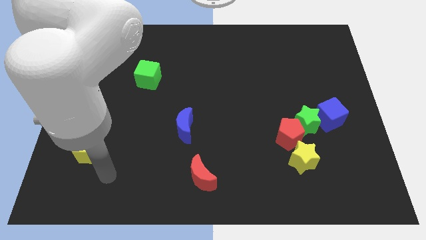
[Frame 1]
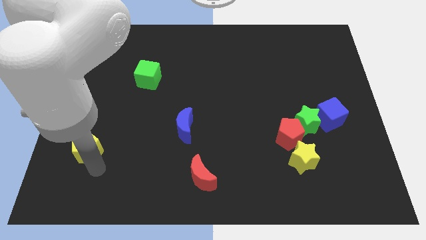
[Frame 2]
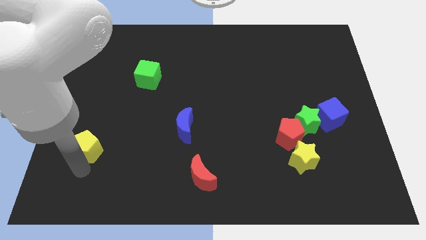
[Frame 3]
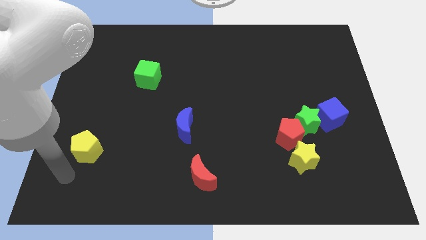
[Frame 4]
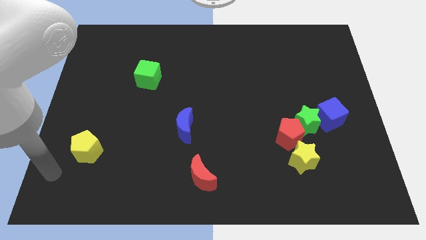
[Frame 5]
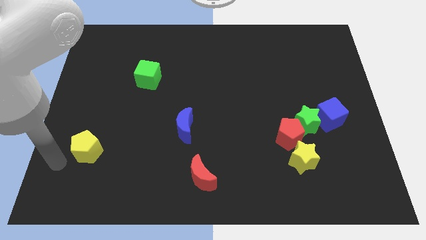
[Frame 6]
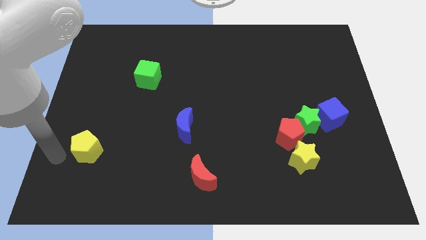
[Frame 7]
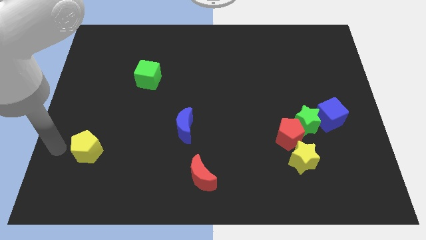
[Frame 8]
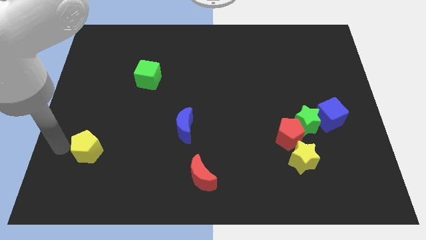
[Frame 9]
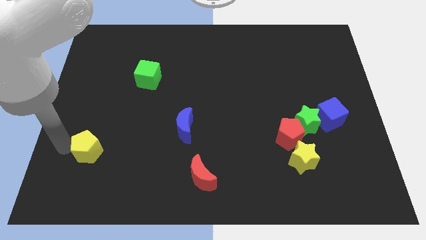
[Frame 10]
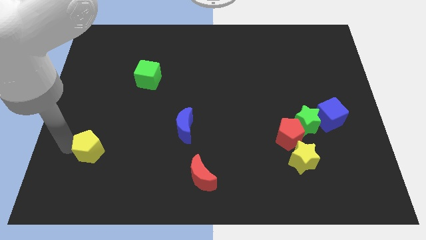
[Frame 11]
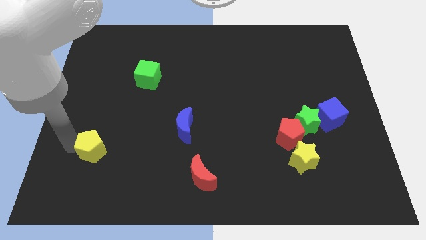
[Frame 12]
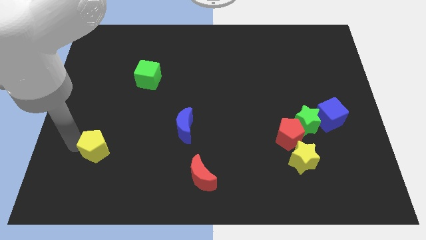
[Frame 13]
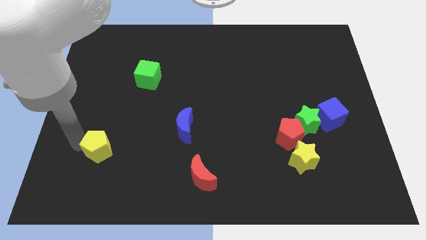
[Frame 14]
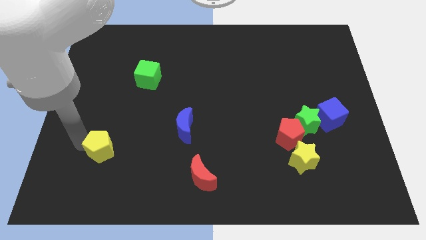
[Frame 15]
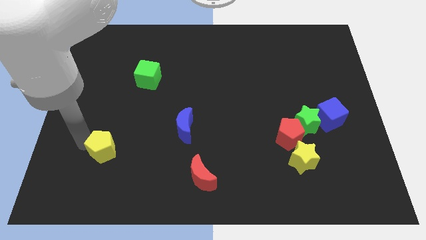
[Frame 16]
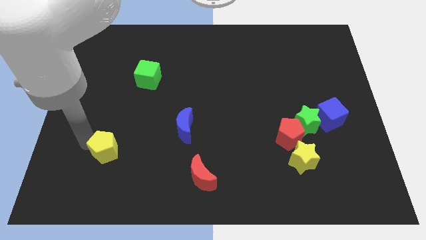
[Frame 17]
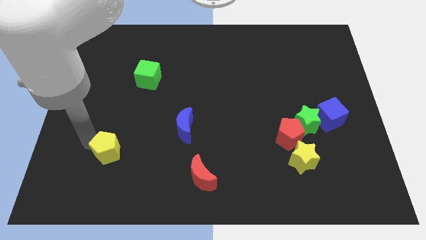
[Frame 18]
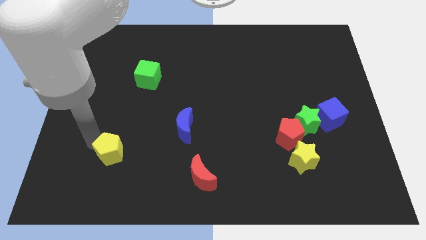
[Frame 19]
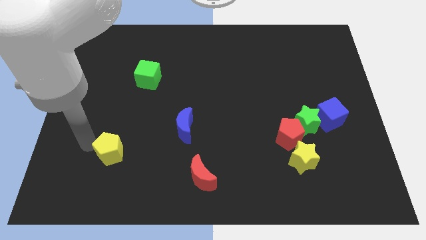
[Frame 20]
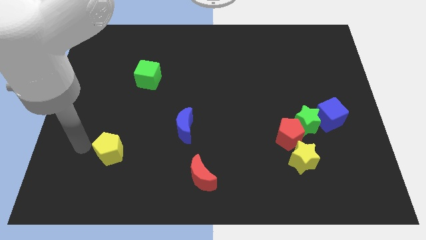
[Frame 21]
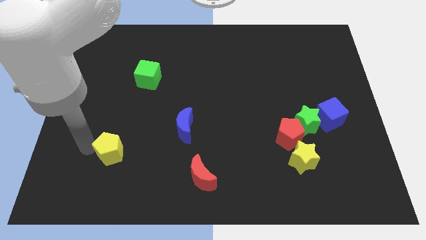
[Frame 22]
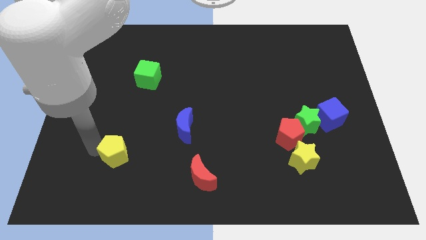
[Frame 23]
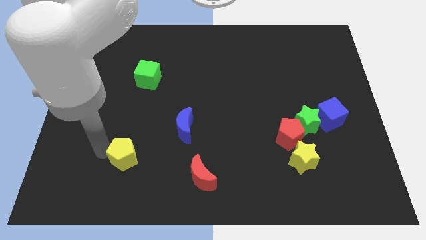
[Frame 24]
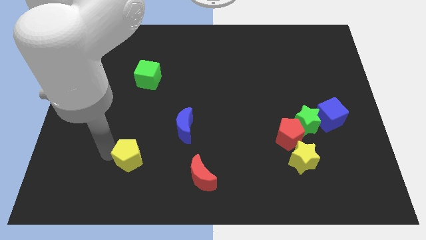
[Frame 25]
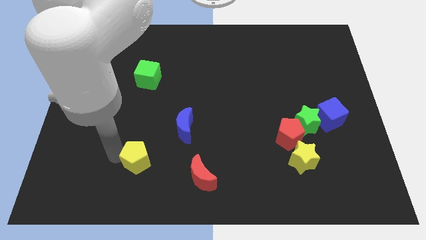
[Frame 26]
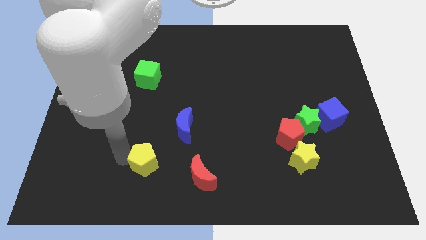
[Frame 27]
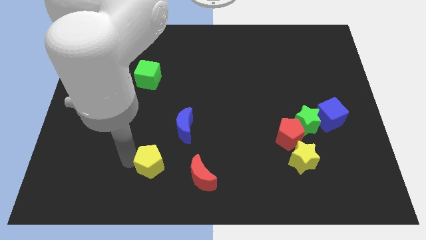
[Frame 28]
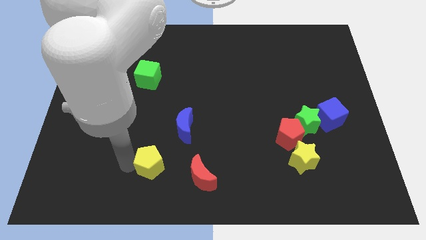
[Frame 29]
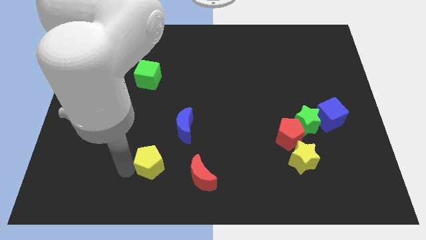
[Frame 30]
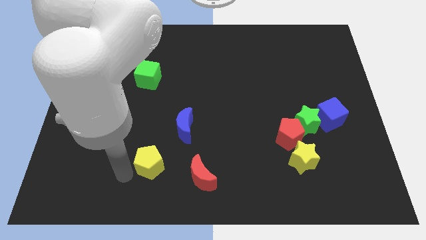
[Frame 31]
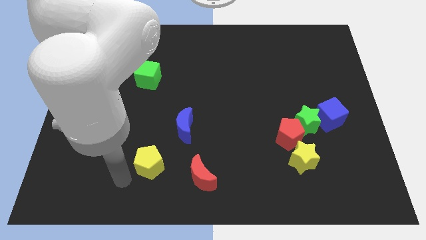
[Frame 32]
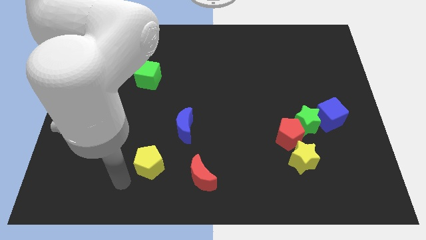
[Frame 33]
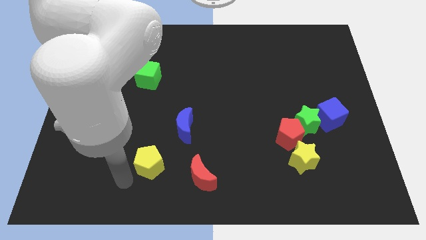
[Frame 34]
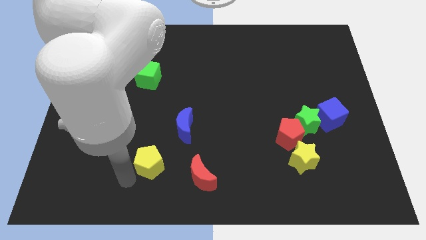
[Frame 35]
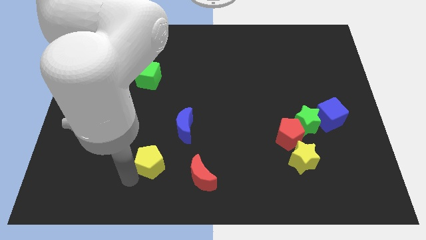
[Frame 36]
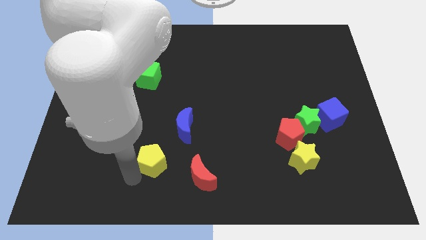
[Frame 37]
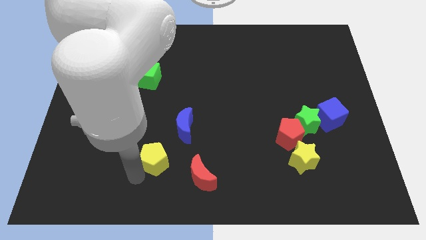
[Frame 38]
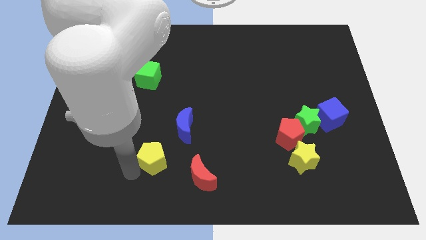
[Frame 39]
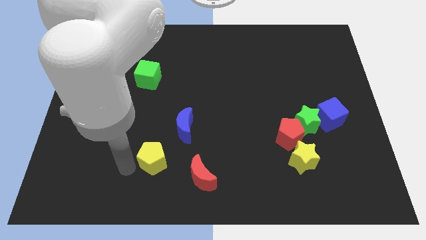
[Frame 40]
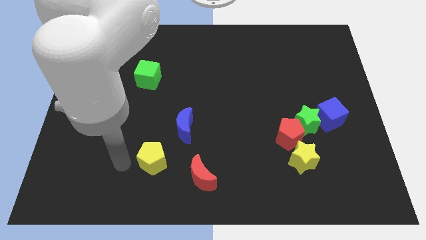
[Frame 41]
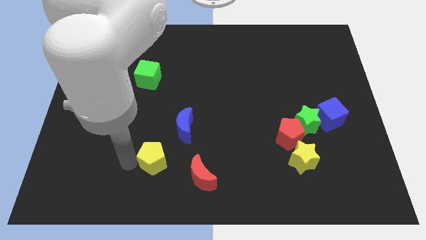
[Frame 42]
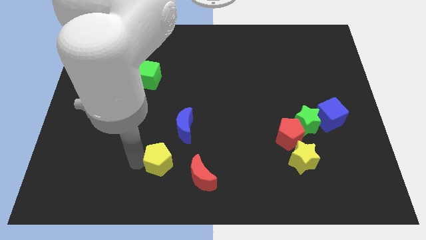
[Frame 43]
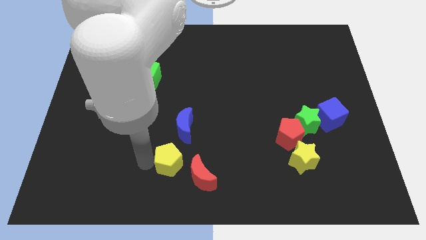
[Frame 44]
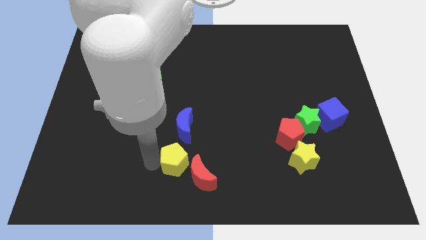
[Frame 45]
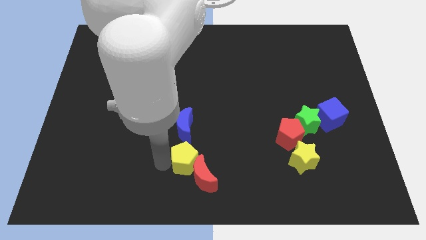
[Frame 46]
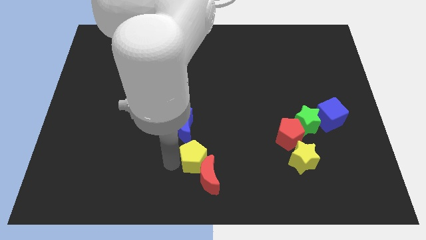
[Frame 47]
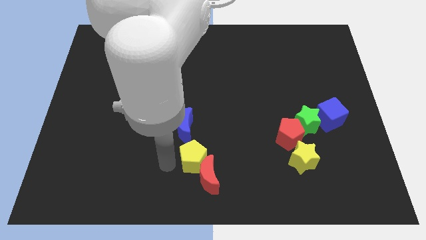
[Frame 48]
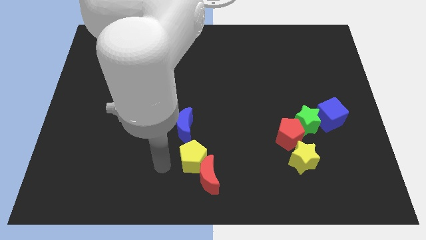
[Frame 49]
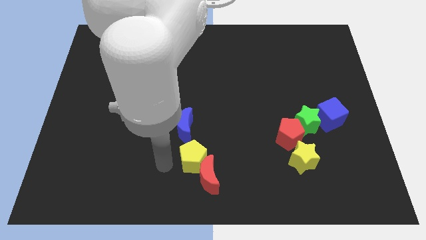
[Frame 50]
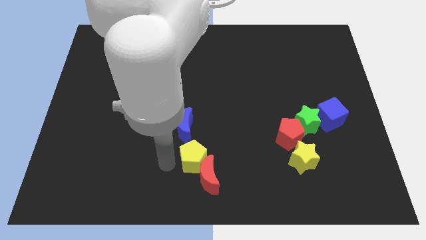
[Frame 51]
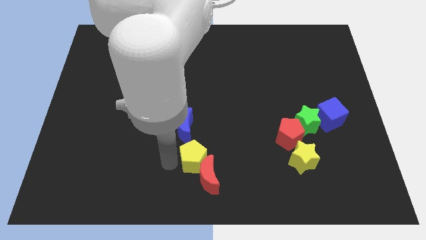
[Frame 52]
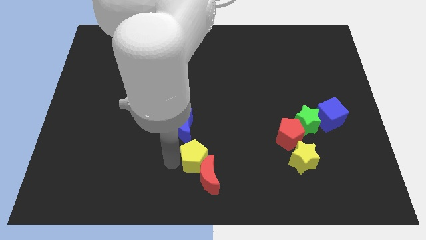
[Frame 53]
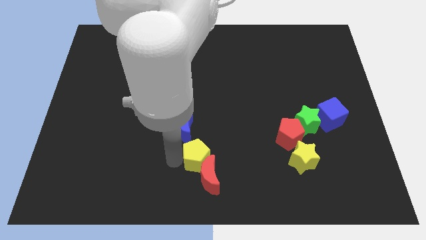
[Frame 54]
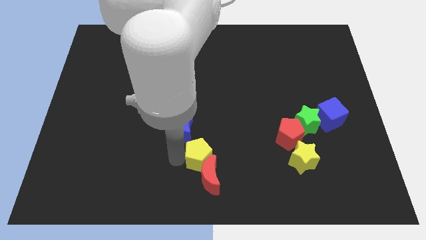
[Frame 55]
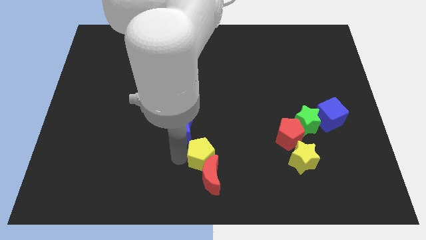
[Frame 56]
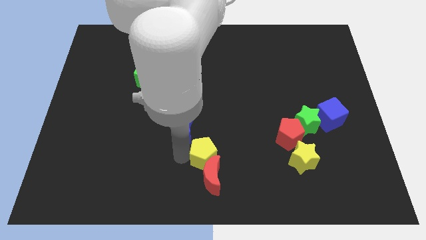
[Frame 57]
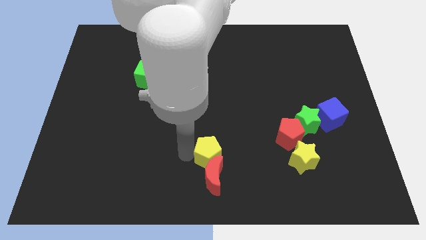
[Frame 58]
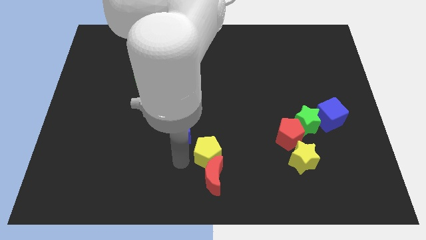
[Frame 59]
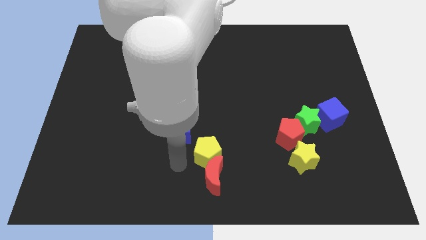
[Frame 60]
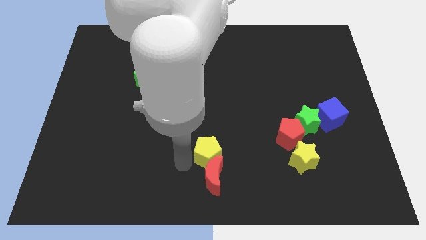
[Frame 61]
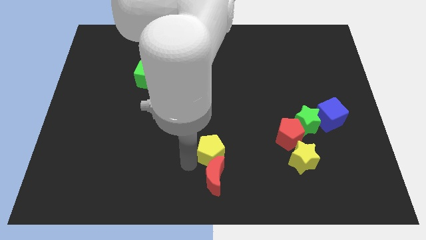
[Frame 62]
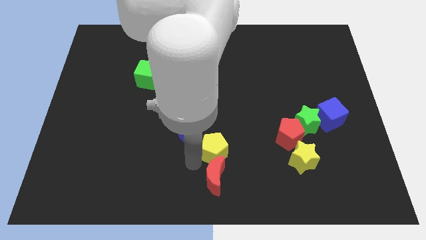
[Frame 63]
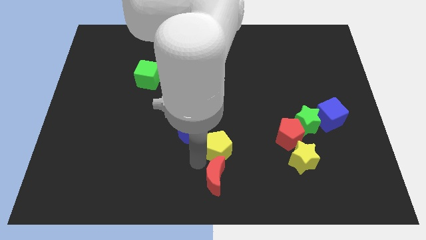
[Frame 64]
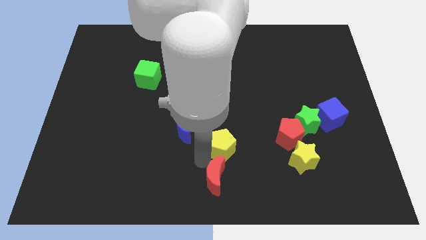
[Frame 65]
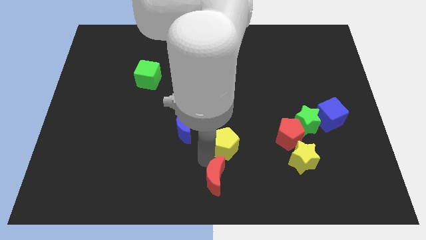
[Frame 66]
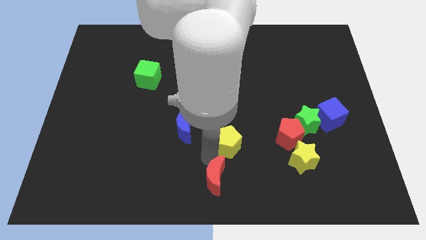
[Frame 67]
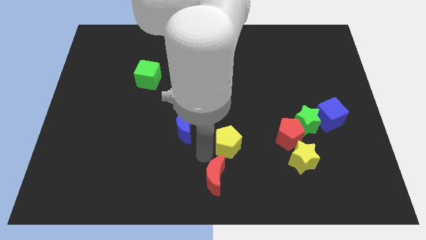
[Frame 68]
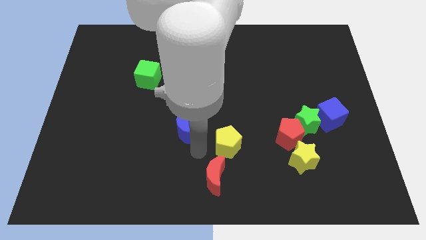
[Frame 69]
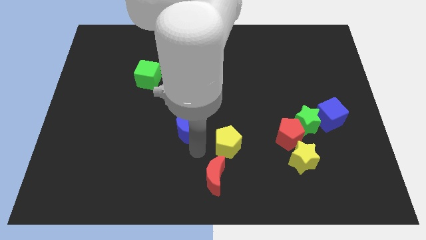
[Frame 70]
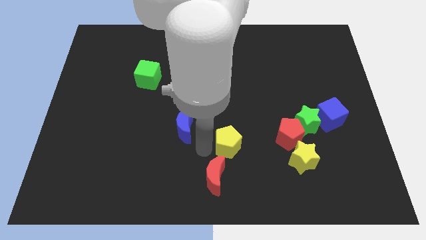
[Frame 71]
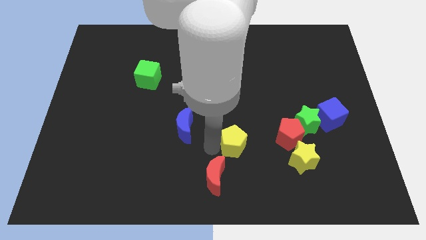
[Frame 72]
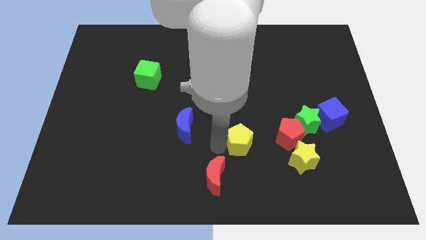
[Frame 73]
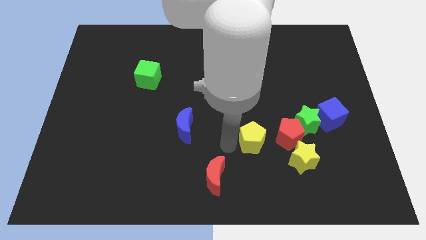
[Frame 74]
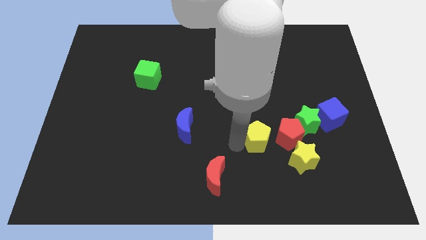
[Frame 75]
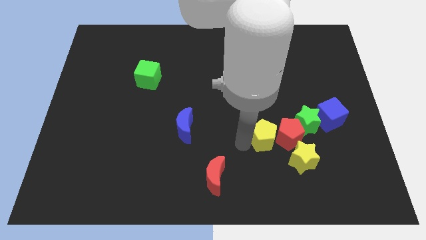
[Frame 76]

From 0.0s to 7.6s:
slide the yellow pentagon diagonally down and to the left of the green star
